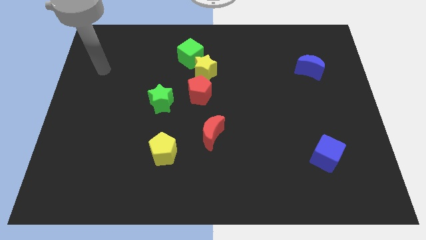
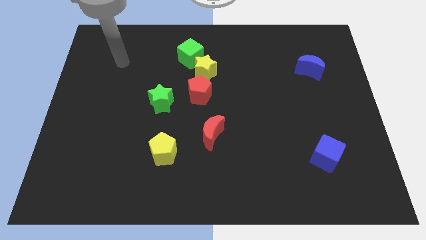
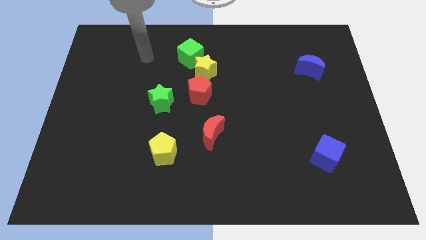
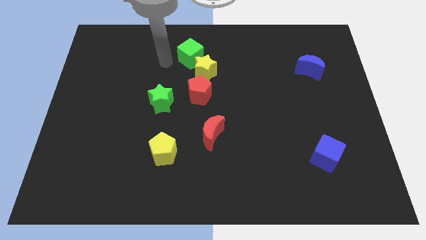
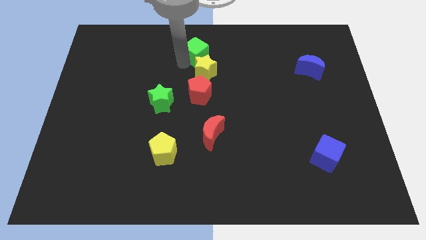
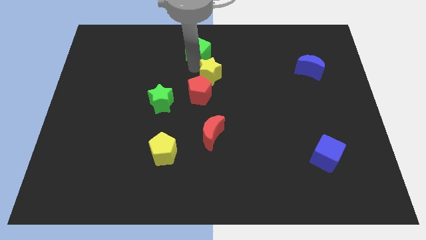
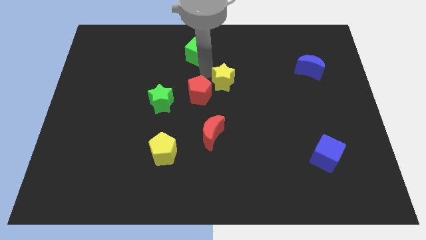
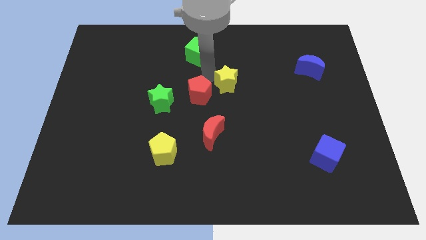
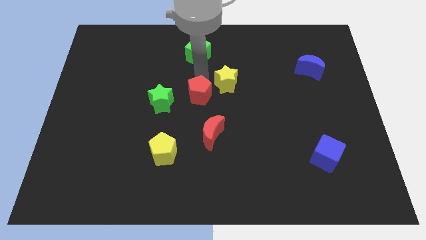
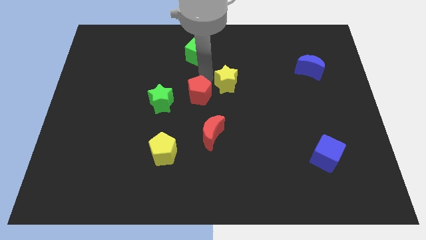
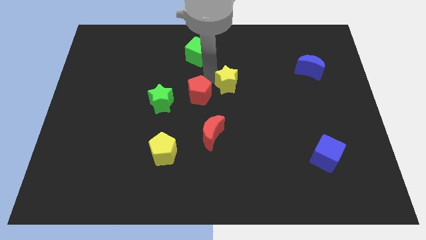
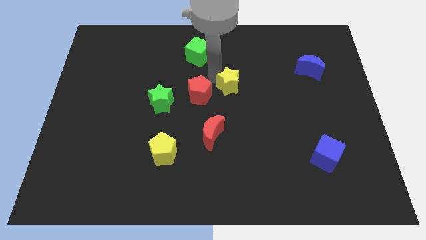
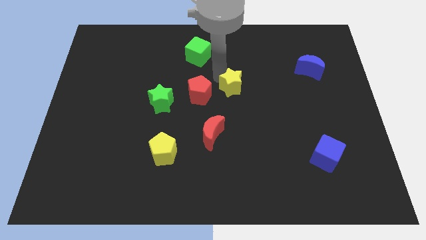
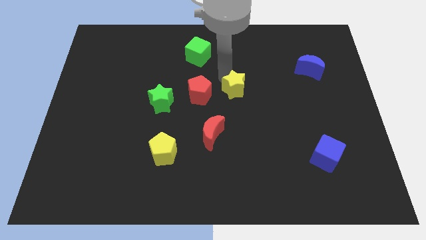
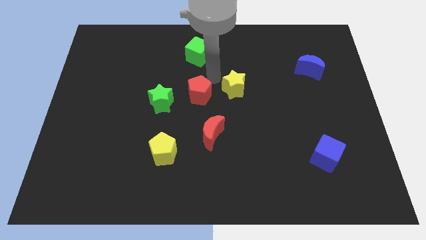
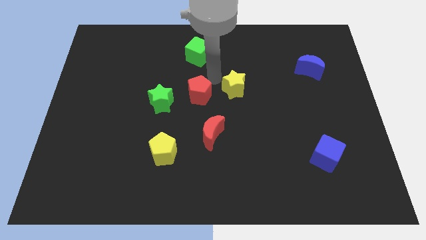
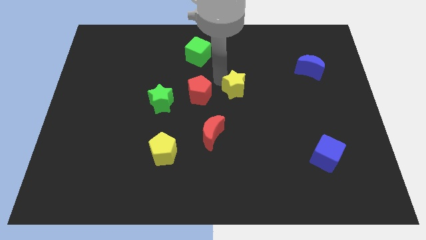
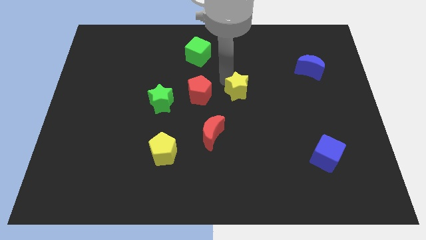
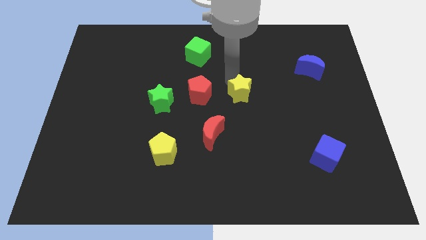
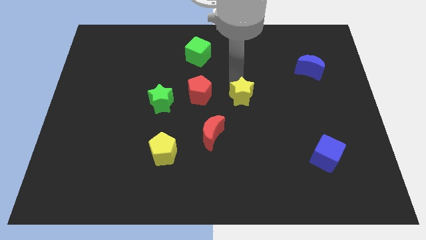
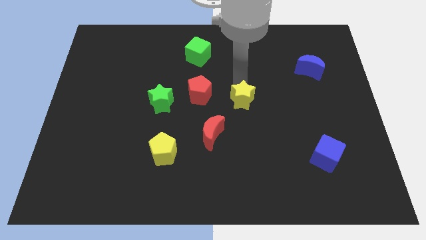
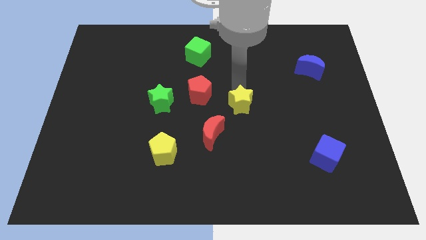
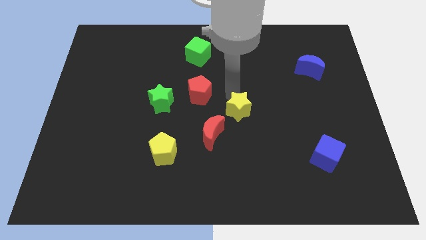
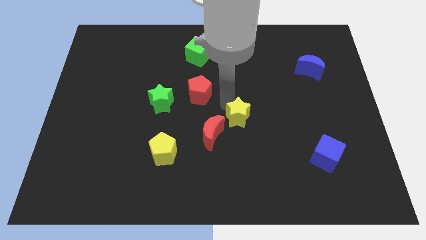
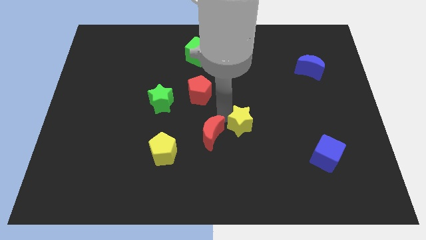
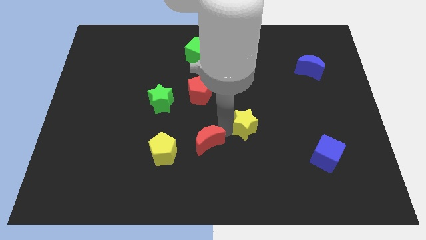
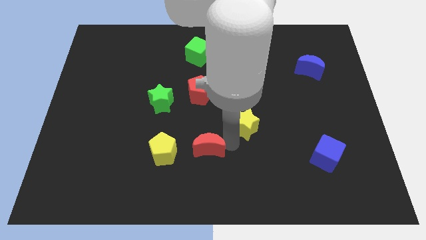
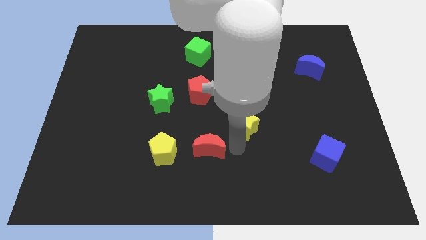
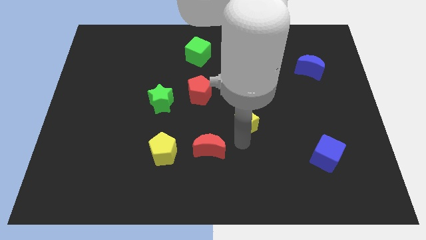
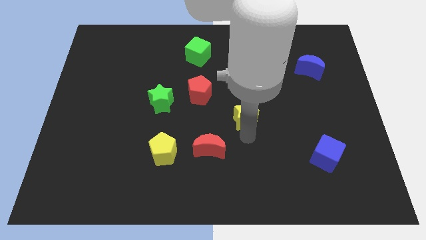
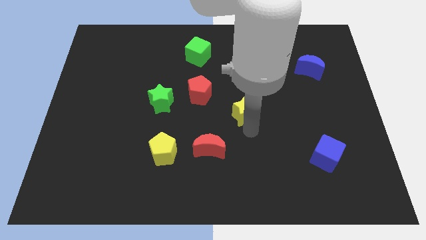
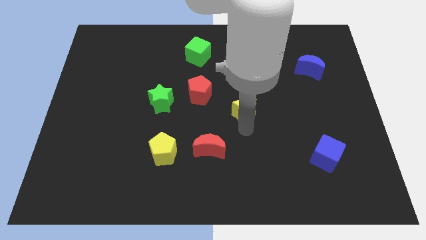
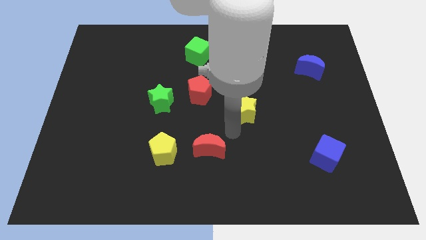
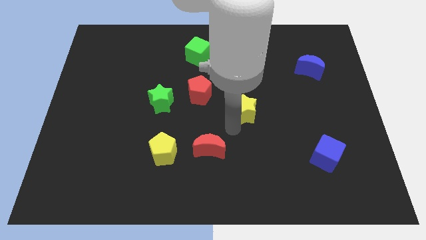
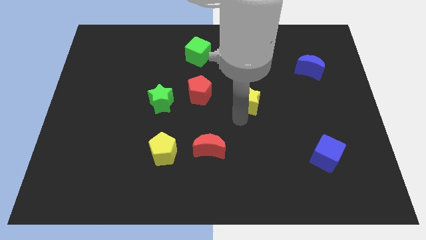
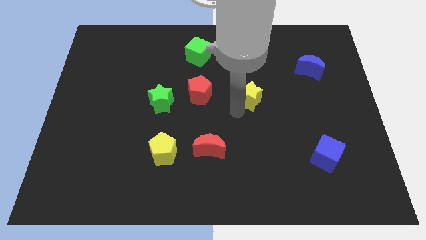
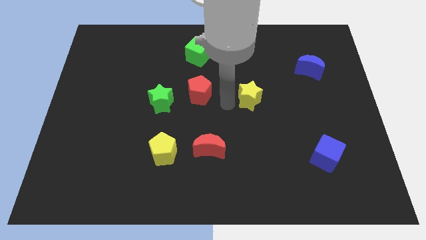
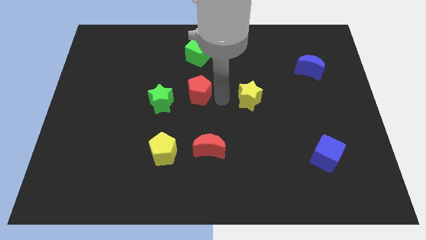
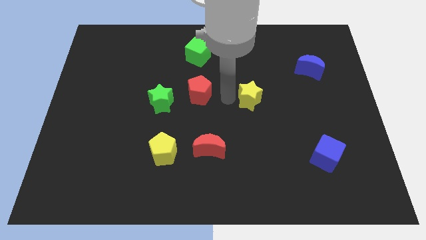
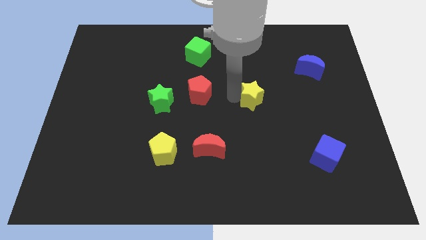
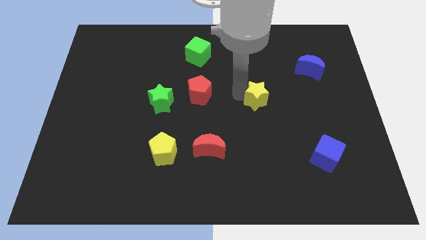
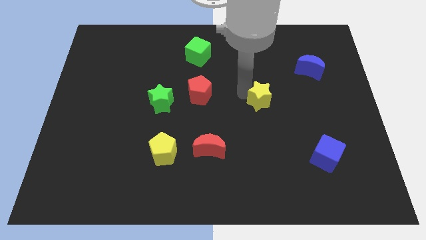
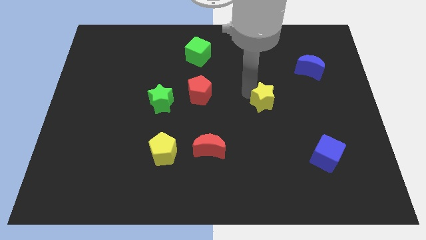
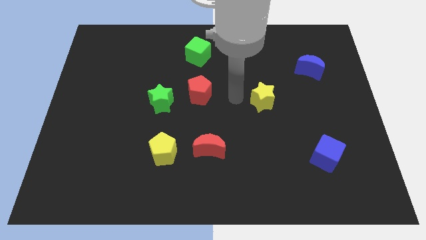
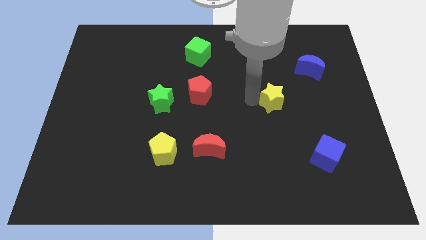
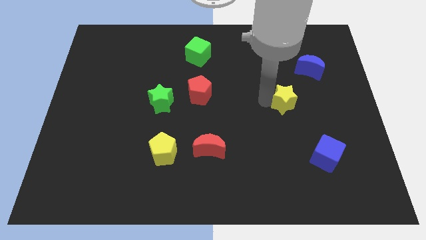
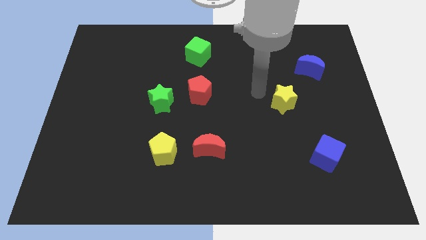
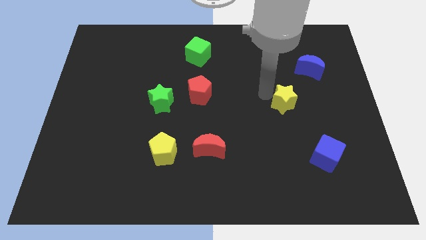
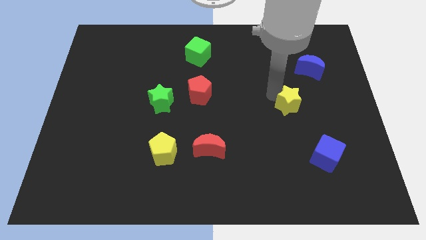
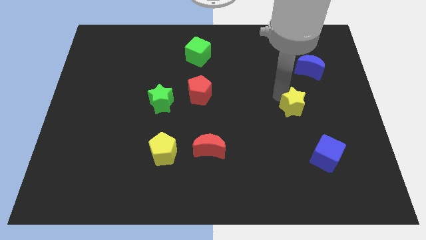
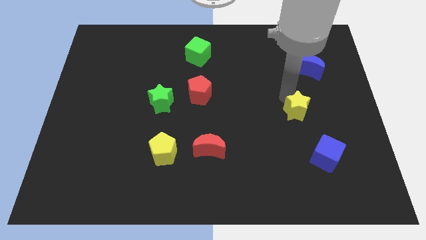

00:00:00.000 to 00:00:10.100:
slide the yellow star above the blue cube

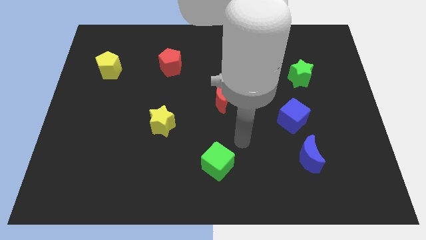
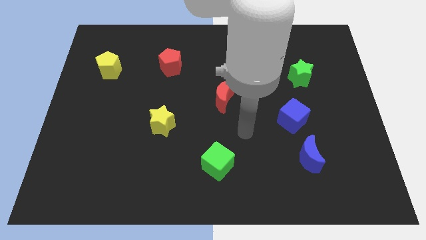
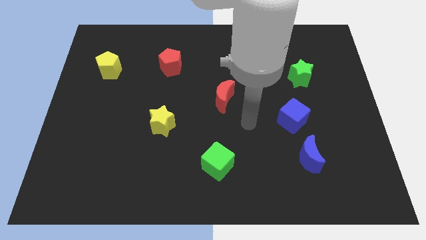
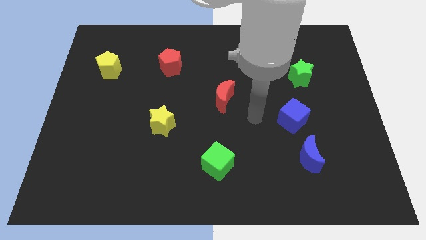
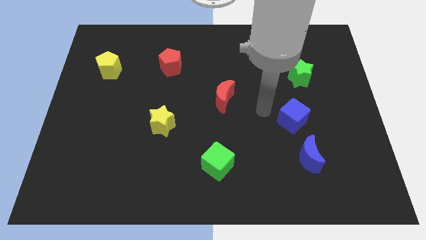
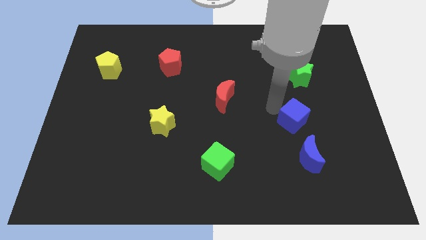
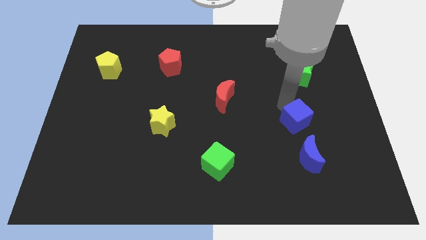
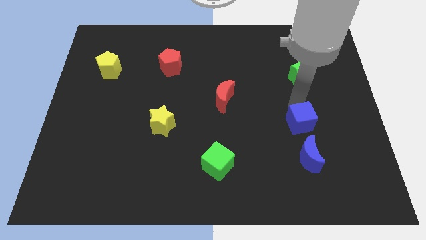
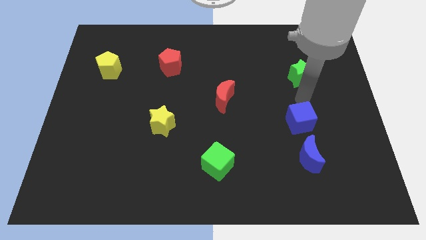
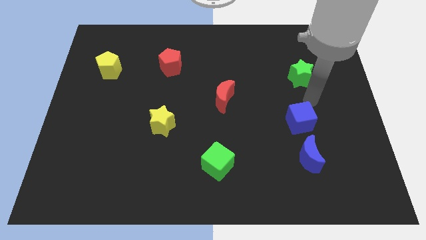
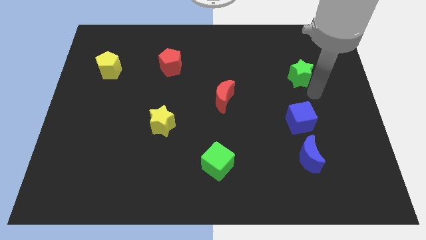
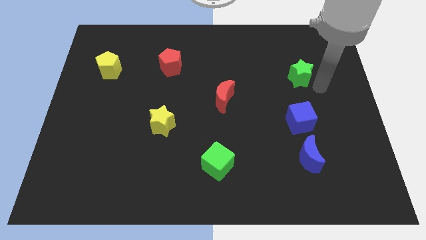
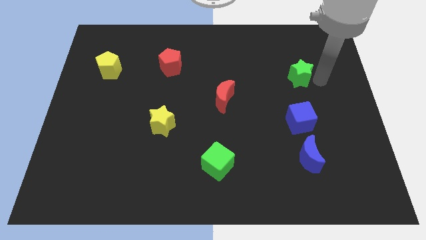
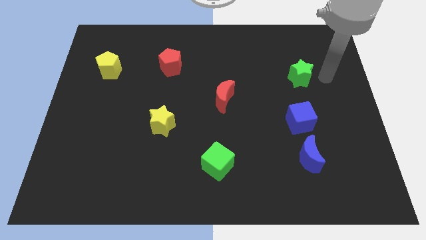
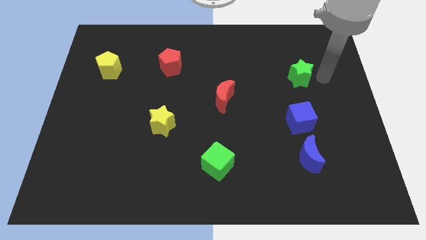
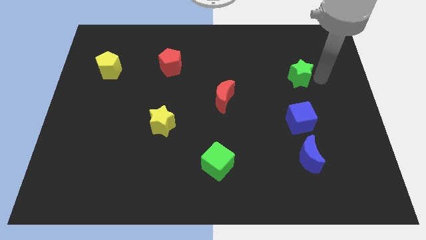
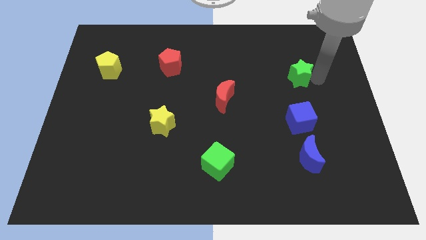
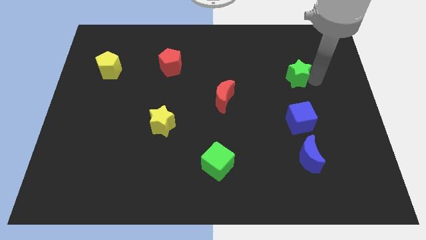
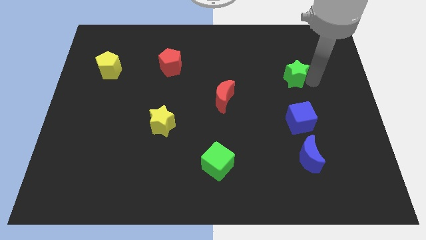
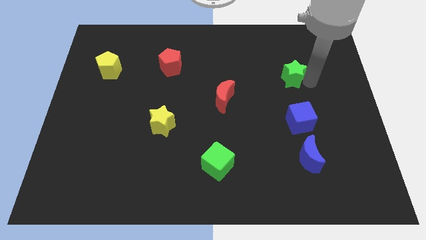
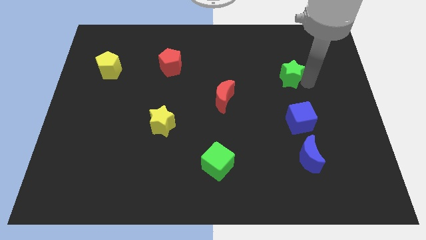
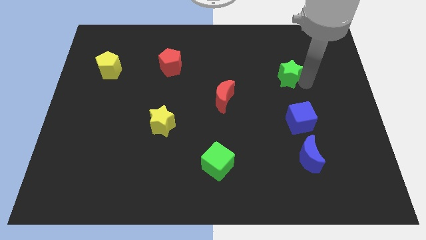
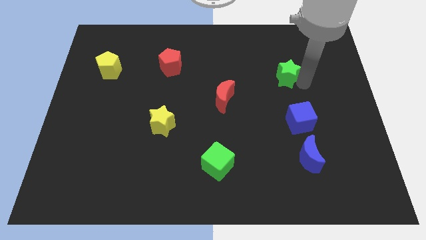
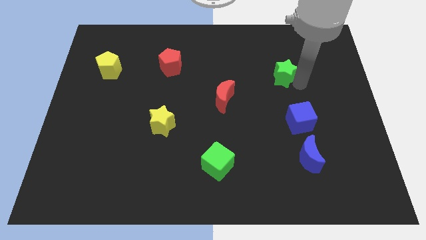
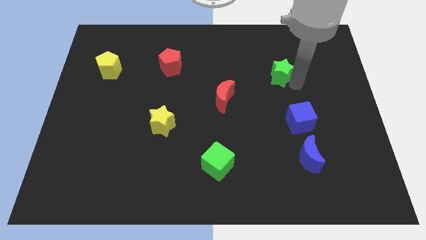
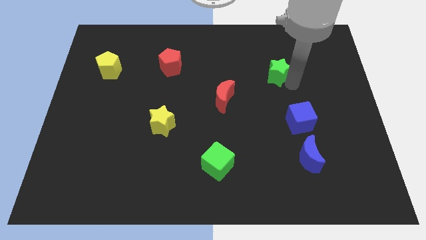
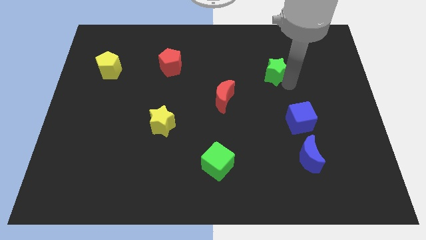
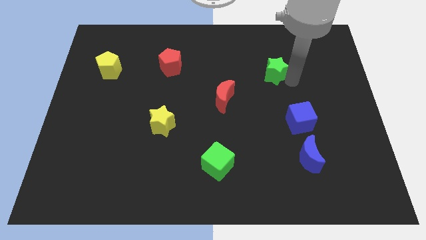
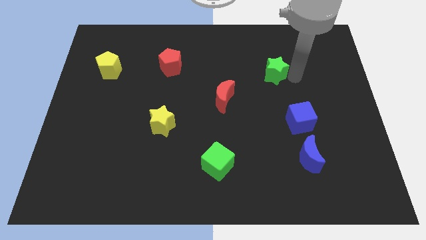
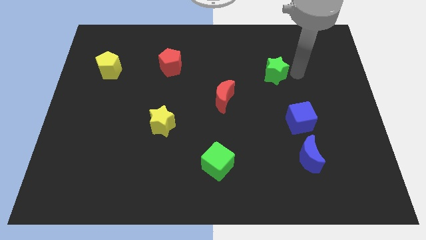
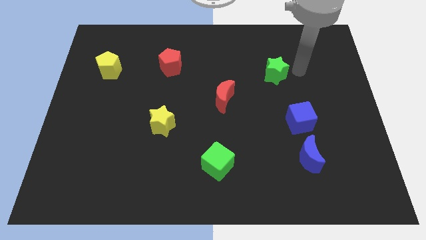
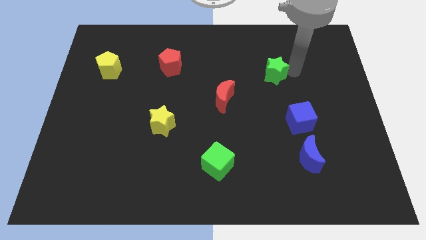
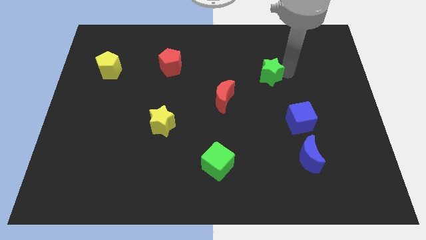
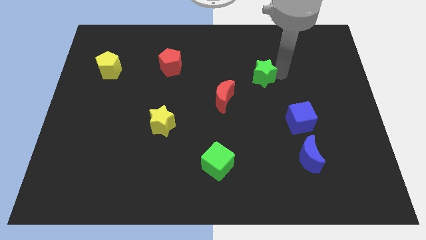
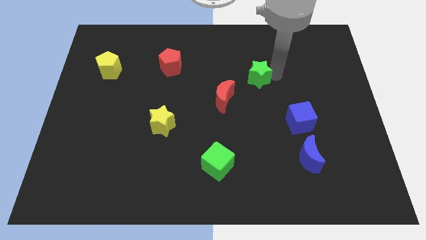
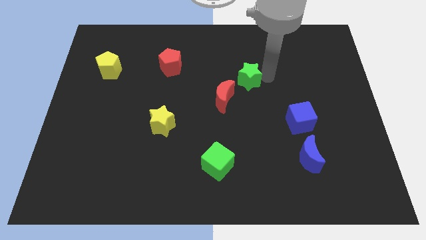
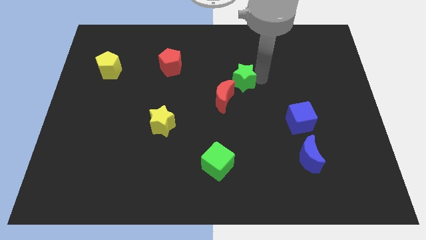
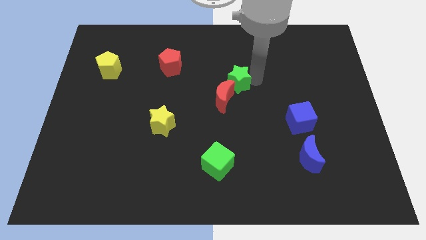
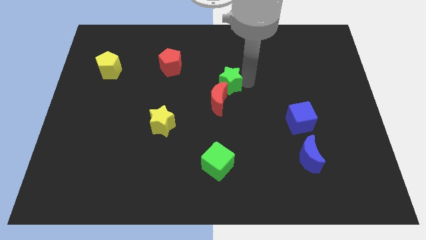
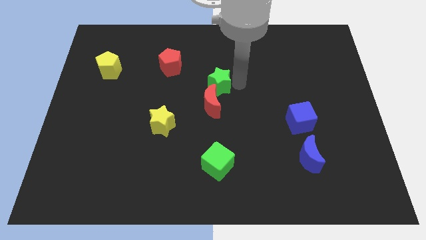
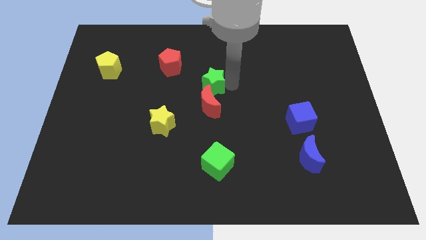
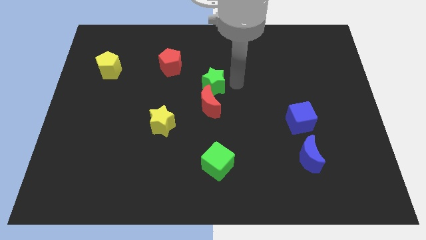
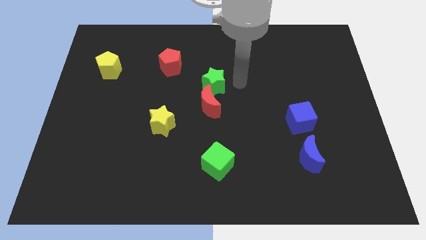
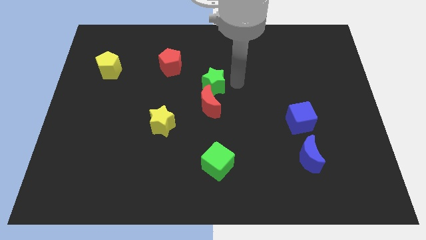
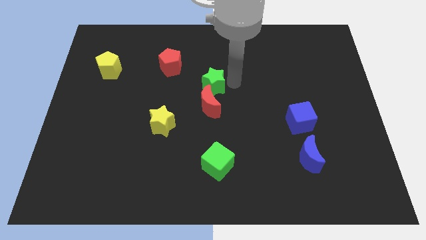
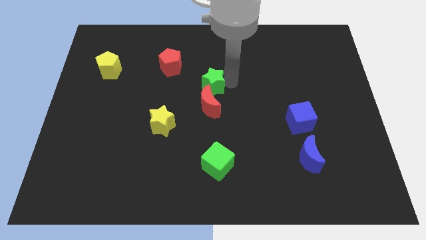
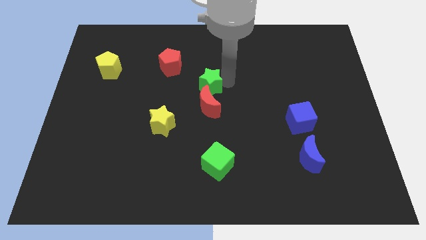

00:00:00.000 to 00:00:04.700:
slide the green star diagonally up and to the left of the red moon
